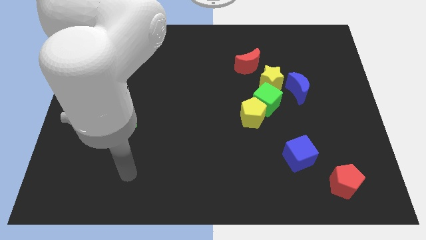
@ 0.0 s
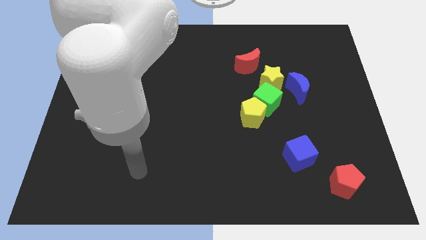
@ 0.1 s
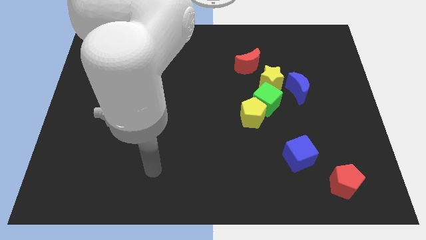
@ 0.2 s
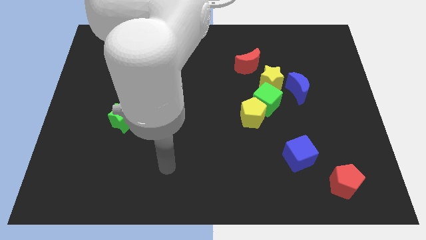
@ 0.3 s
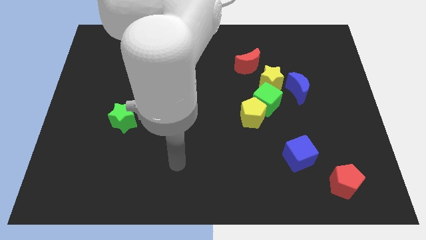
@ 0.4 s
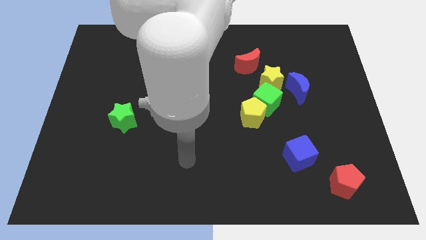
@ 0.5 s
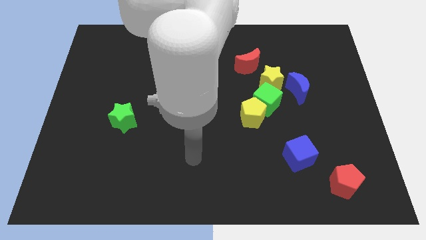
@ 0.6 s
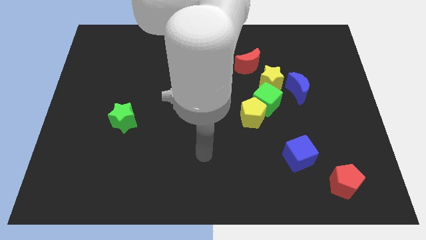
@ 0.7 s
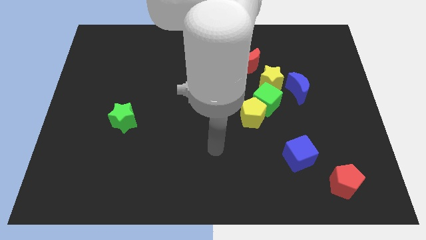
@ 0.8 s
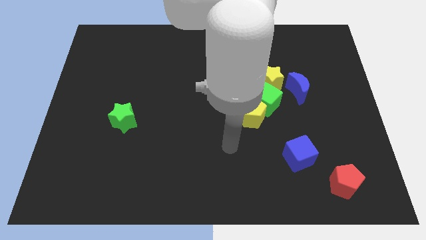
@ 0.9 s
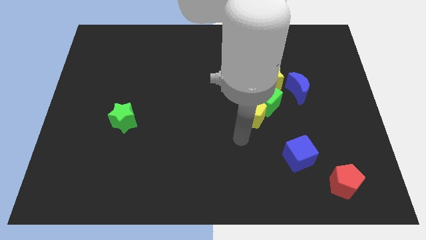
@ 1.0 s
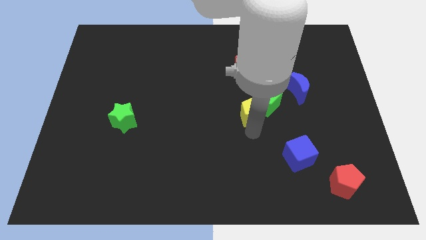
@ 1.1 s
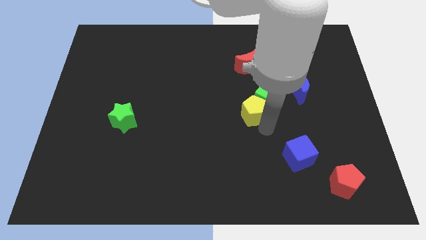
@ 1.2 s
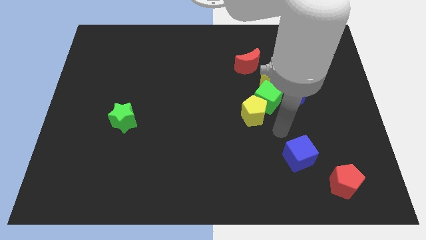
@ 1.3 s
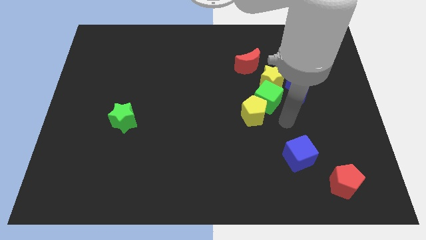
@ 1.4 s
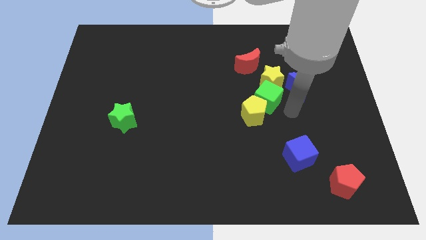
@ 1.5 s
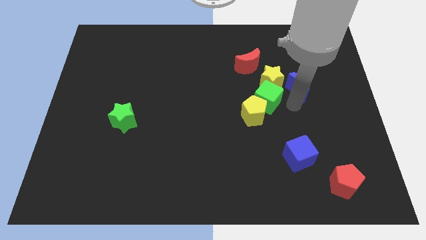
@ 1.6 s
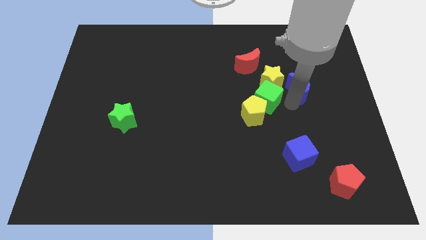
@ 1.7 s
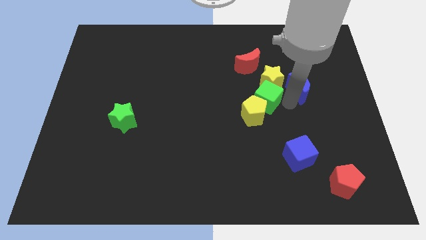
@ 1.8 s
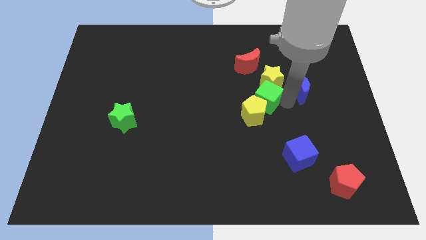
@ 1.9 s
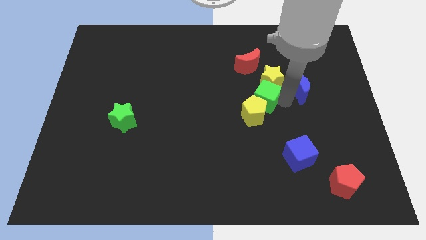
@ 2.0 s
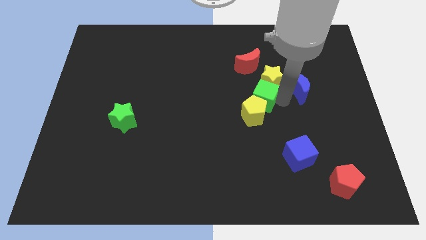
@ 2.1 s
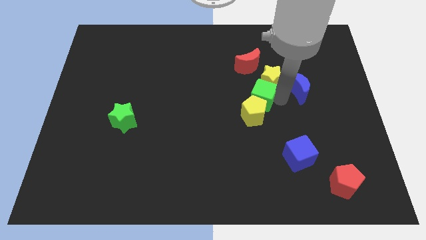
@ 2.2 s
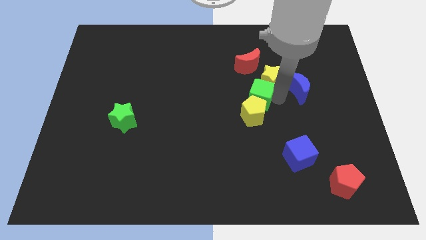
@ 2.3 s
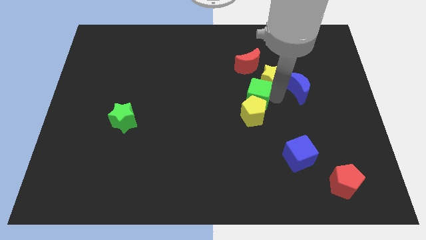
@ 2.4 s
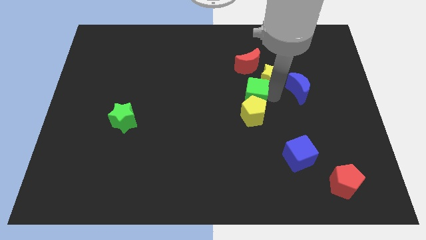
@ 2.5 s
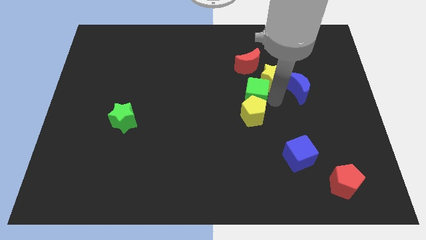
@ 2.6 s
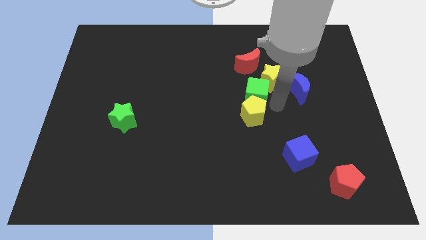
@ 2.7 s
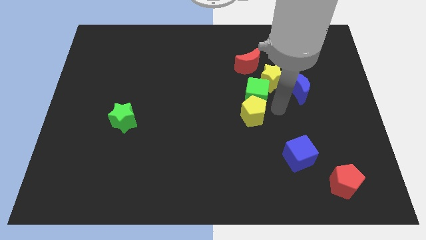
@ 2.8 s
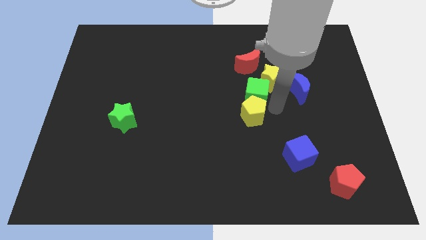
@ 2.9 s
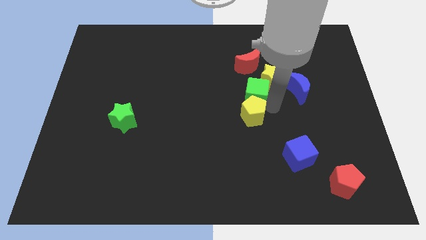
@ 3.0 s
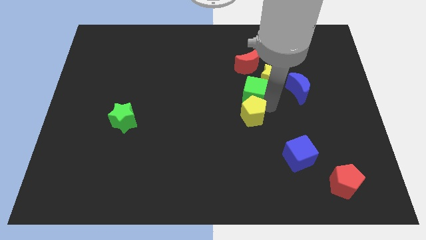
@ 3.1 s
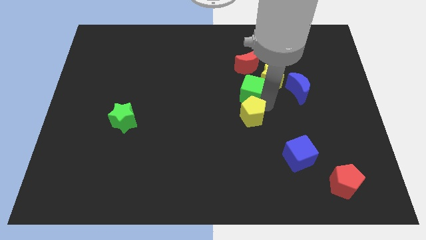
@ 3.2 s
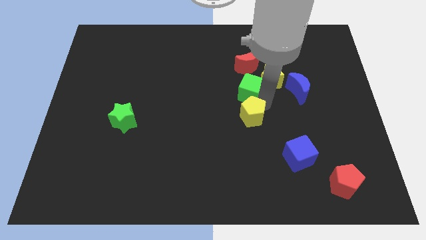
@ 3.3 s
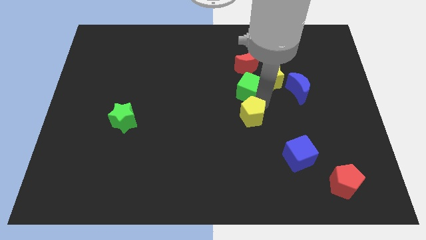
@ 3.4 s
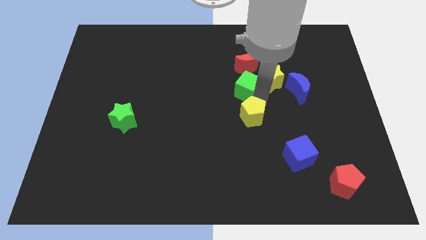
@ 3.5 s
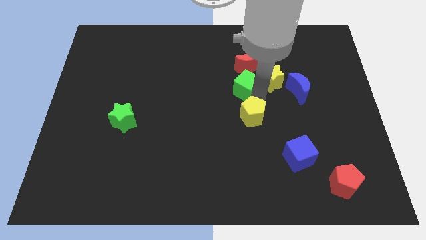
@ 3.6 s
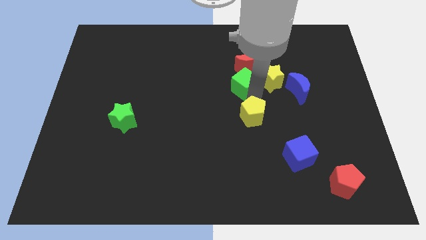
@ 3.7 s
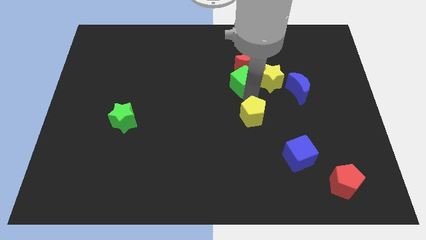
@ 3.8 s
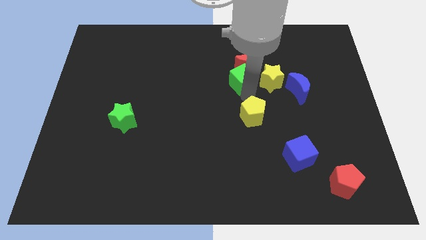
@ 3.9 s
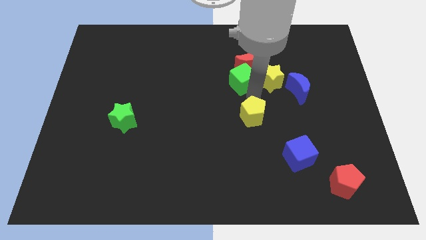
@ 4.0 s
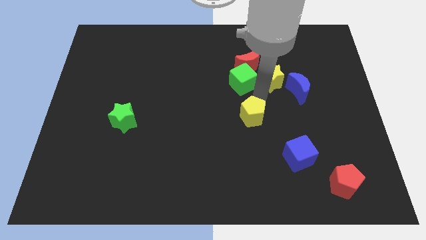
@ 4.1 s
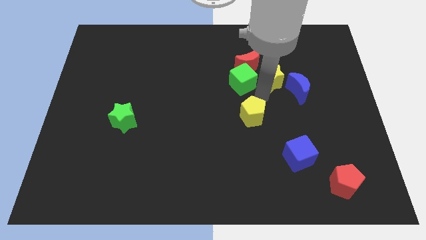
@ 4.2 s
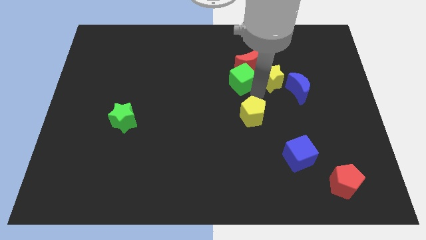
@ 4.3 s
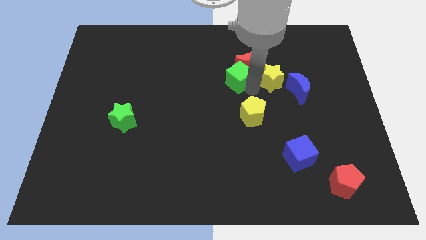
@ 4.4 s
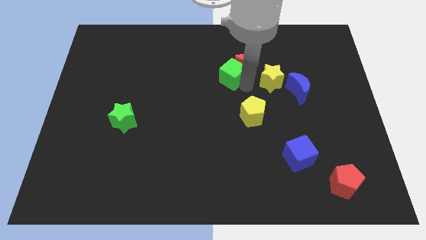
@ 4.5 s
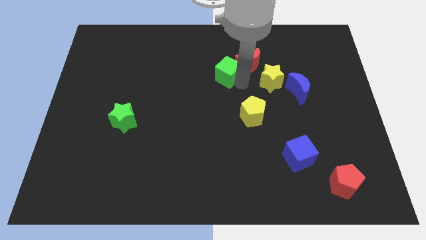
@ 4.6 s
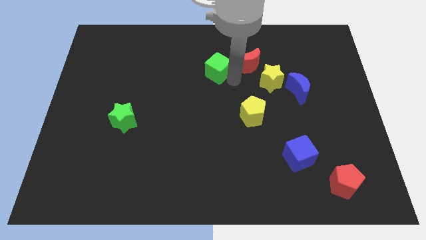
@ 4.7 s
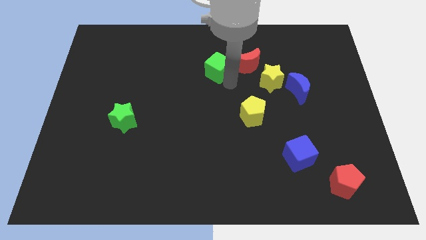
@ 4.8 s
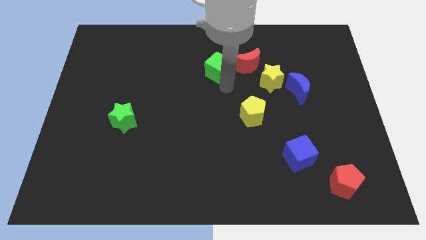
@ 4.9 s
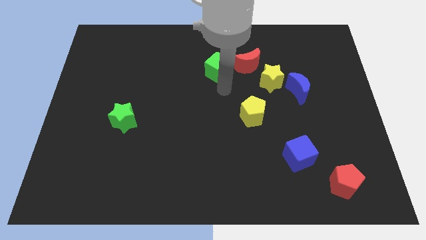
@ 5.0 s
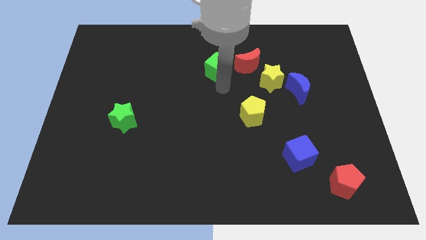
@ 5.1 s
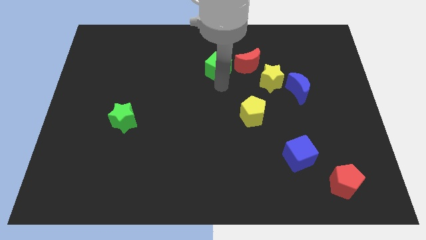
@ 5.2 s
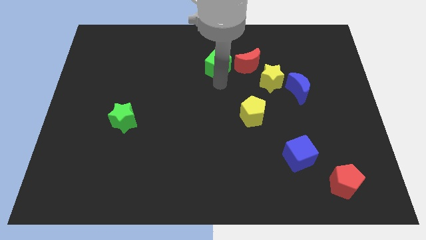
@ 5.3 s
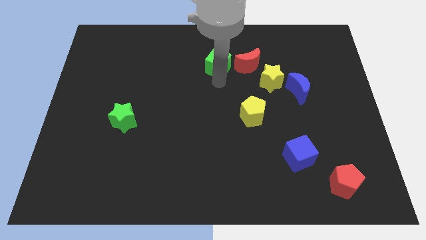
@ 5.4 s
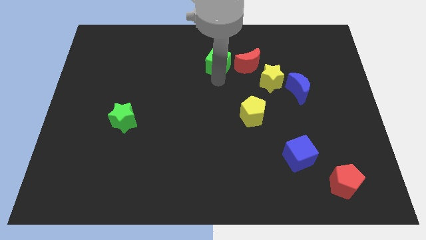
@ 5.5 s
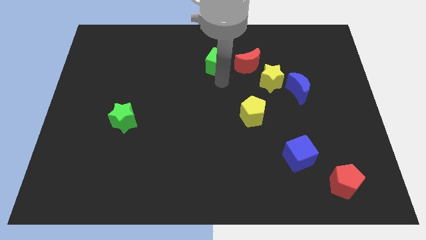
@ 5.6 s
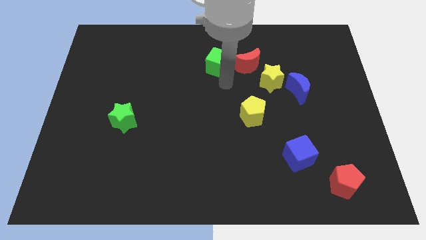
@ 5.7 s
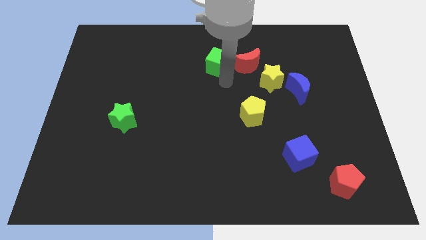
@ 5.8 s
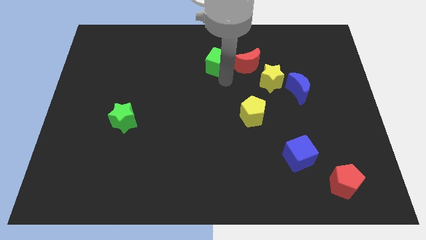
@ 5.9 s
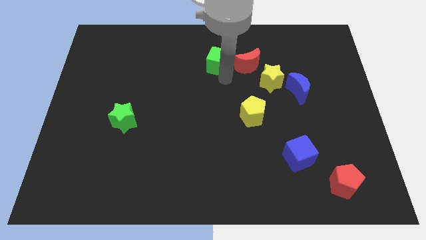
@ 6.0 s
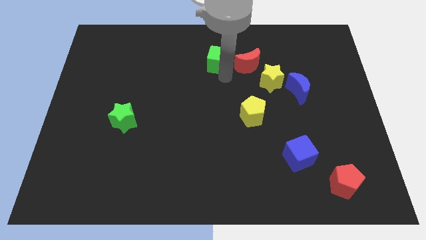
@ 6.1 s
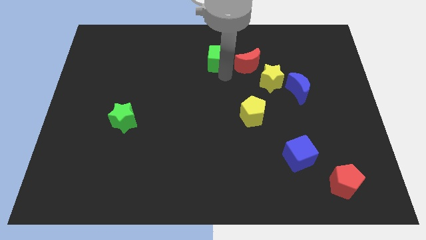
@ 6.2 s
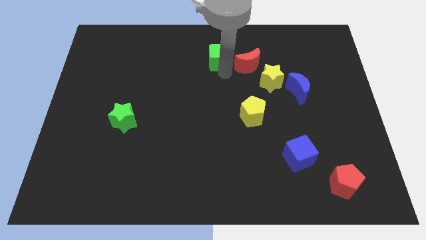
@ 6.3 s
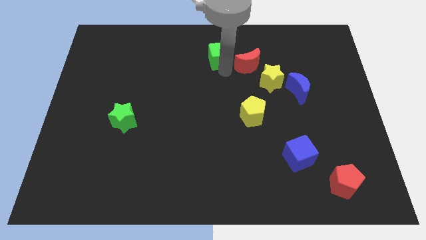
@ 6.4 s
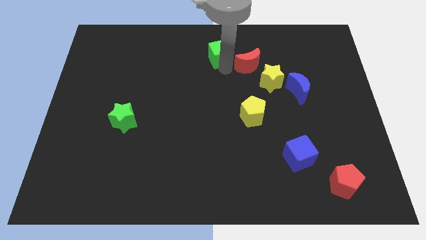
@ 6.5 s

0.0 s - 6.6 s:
move the green cube to the top side
